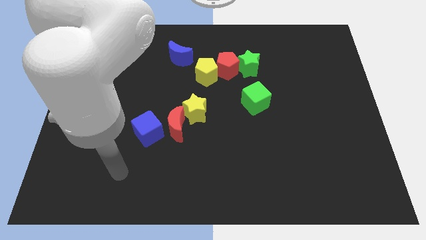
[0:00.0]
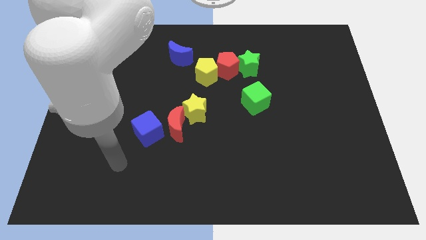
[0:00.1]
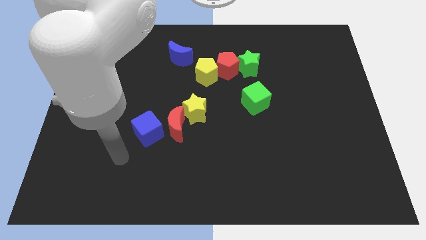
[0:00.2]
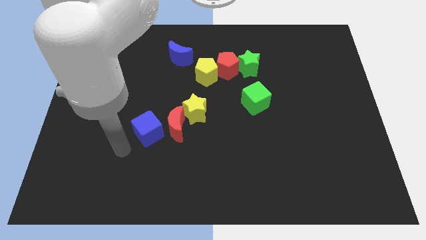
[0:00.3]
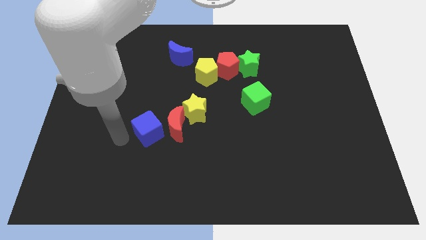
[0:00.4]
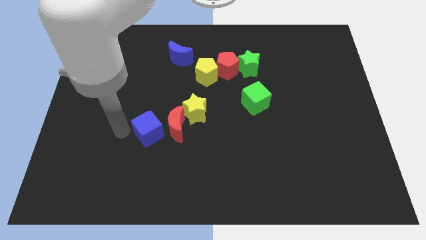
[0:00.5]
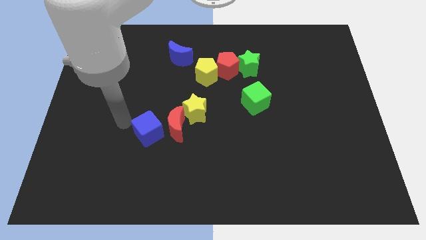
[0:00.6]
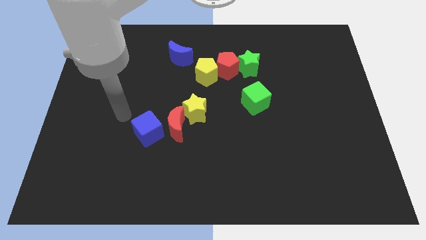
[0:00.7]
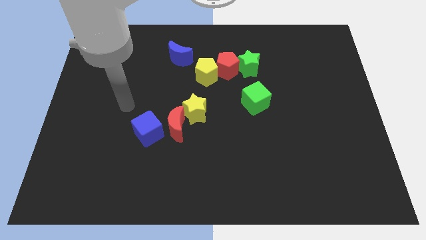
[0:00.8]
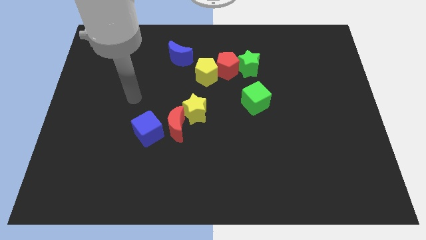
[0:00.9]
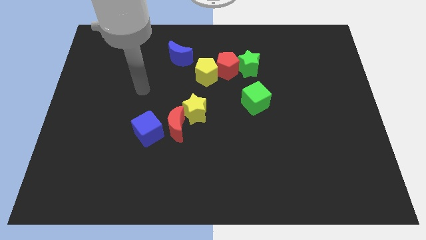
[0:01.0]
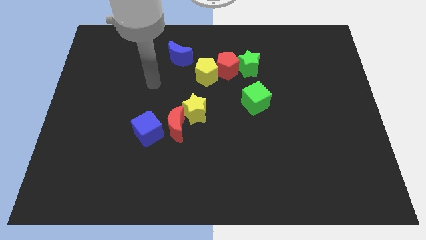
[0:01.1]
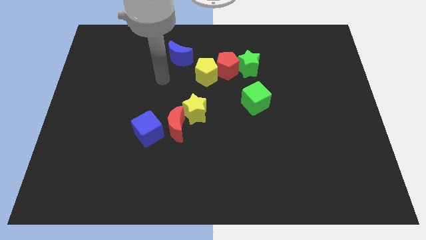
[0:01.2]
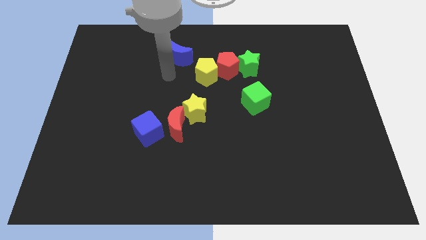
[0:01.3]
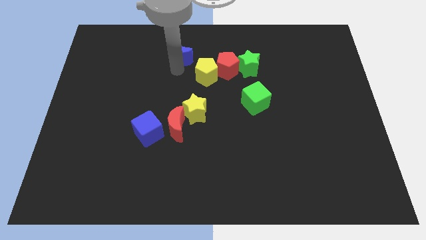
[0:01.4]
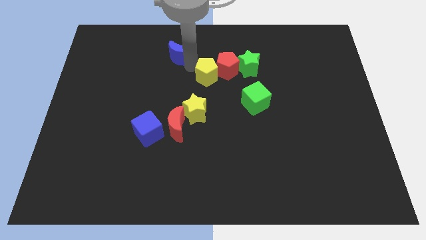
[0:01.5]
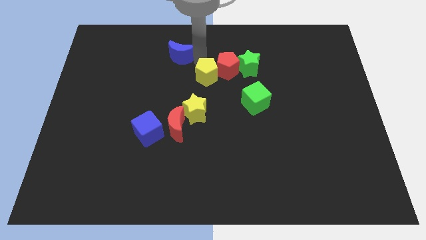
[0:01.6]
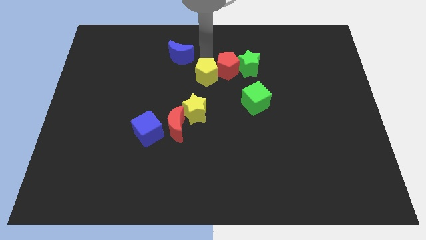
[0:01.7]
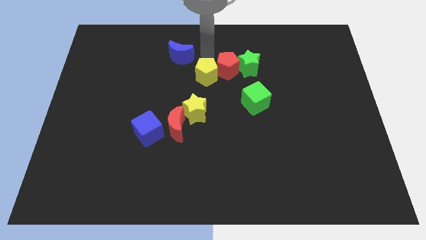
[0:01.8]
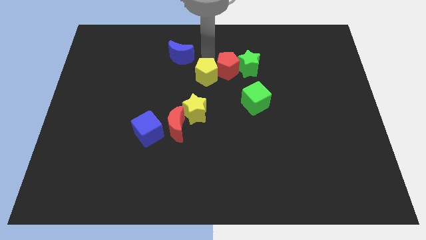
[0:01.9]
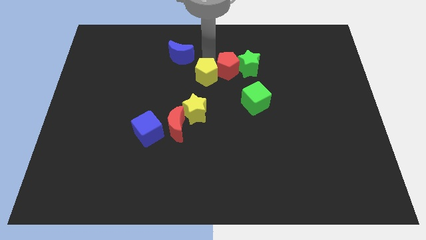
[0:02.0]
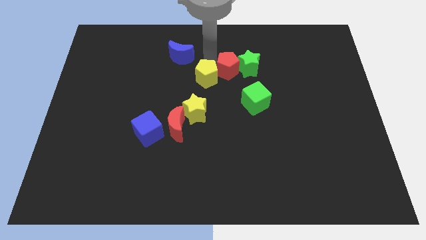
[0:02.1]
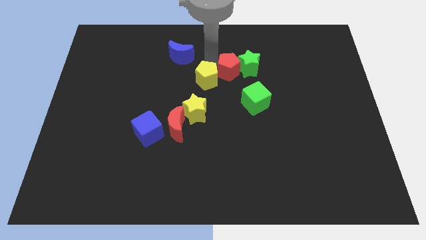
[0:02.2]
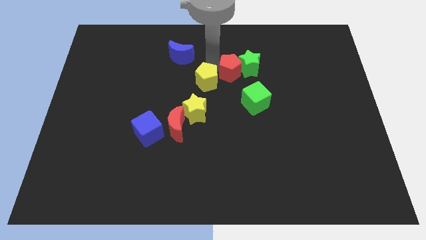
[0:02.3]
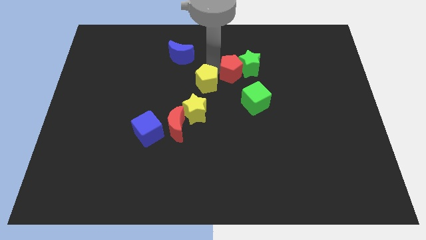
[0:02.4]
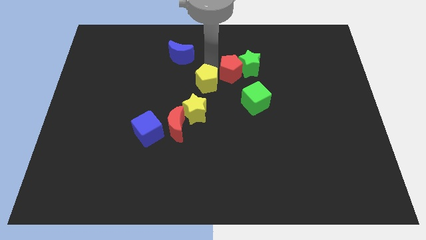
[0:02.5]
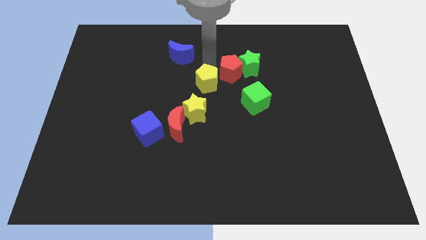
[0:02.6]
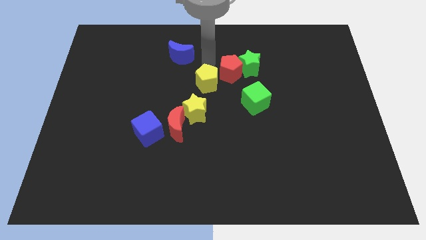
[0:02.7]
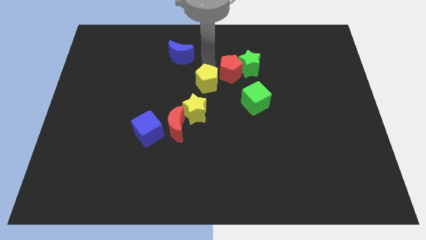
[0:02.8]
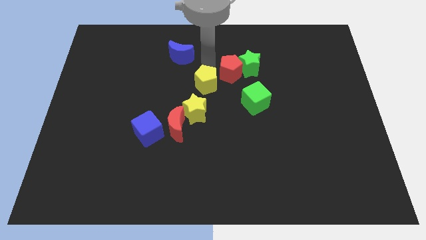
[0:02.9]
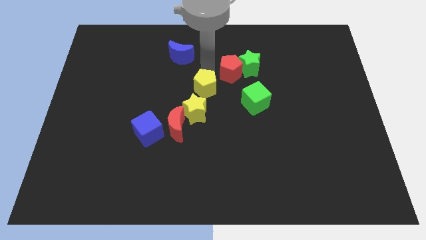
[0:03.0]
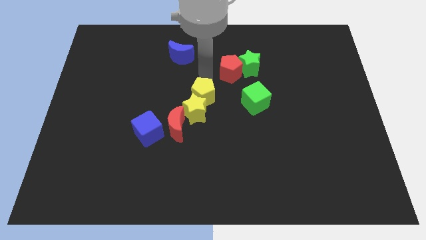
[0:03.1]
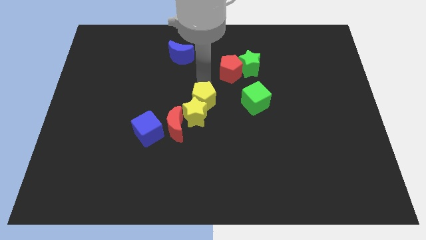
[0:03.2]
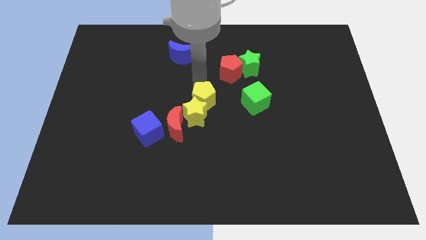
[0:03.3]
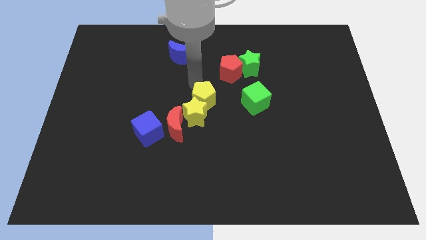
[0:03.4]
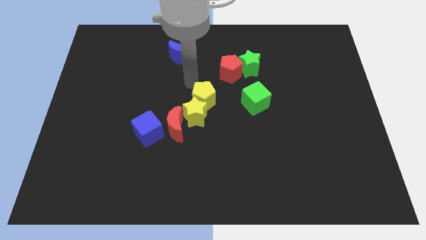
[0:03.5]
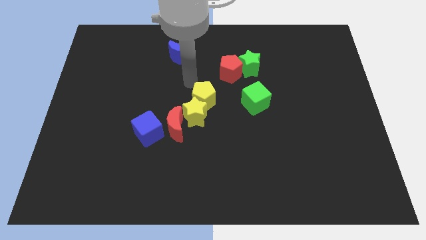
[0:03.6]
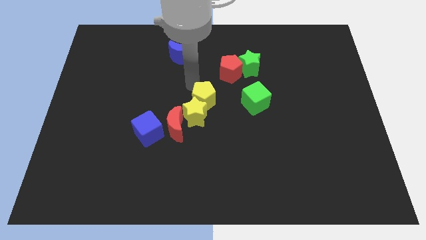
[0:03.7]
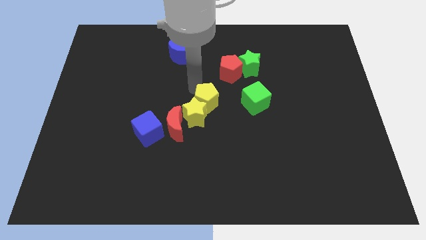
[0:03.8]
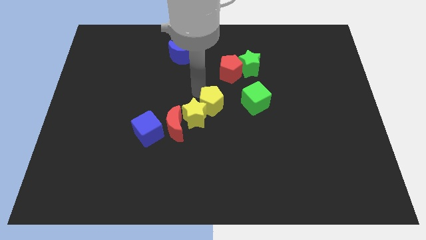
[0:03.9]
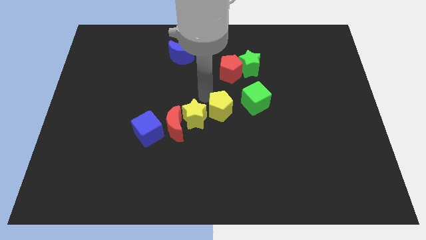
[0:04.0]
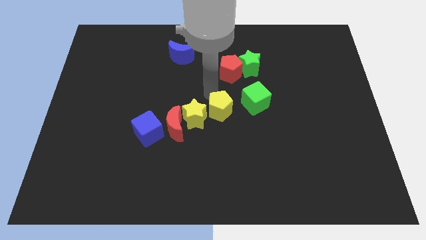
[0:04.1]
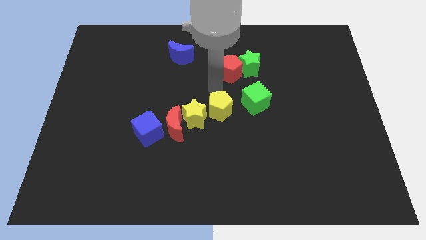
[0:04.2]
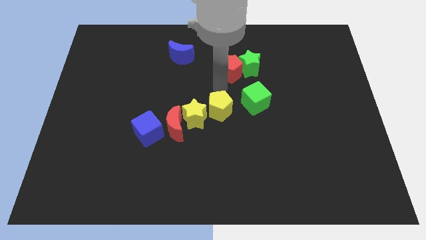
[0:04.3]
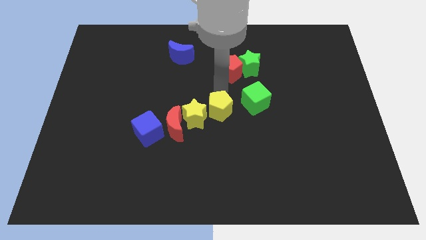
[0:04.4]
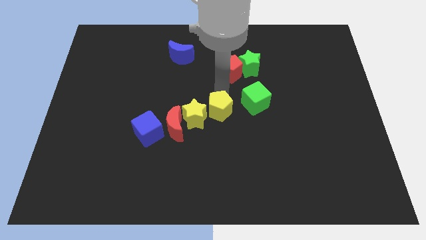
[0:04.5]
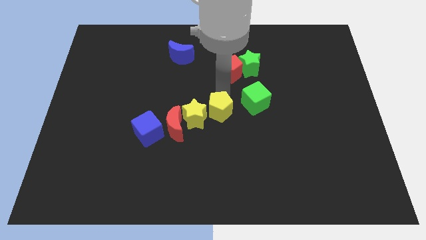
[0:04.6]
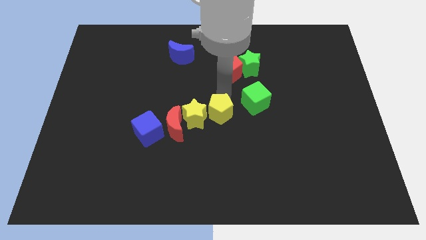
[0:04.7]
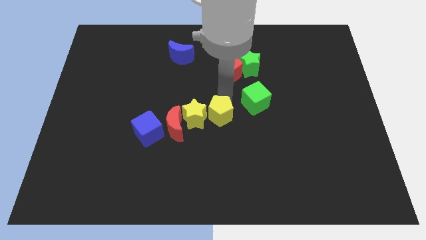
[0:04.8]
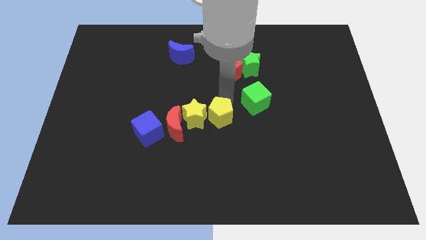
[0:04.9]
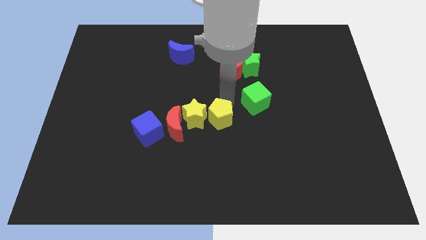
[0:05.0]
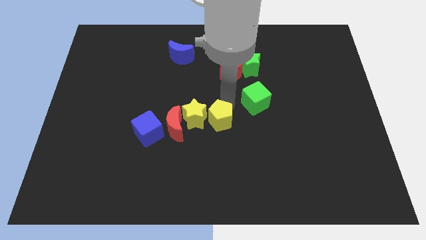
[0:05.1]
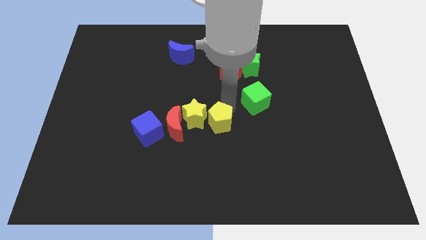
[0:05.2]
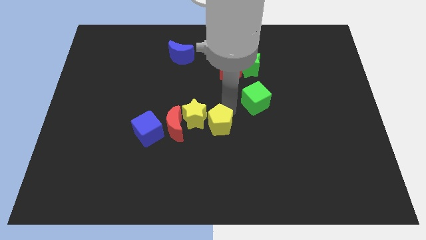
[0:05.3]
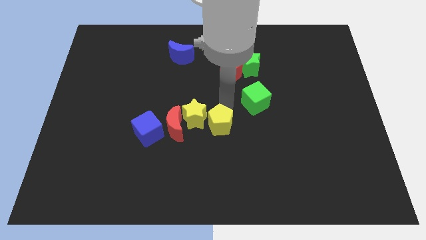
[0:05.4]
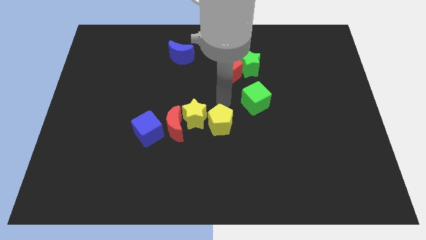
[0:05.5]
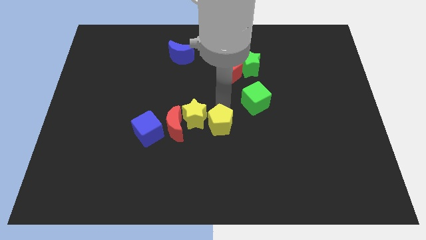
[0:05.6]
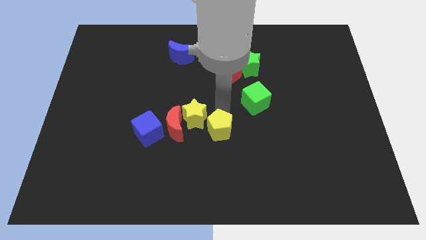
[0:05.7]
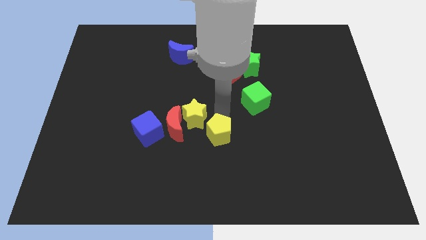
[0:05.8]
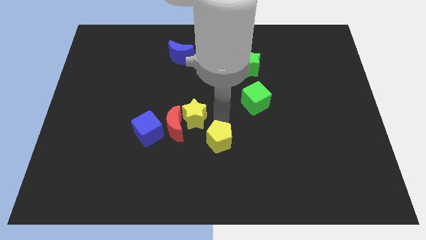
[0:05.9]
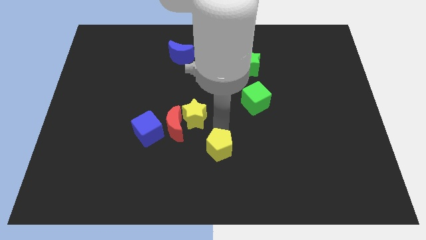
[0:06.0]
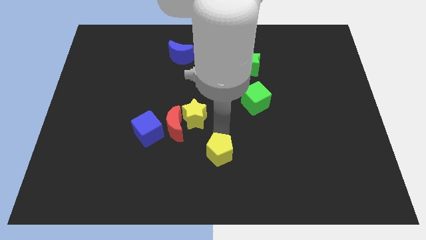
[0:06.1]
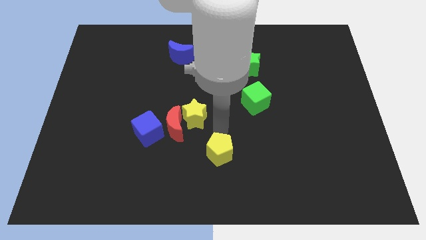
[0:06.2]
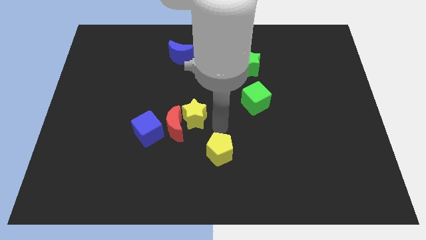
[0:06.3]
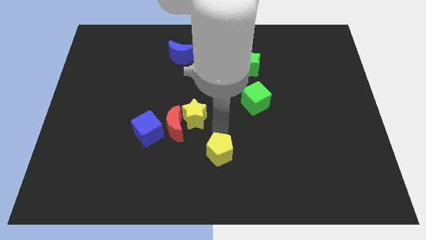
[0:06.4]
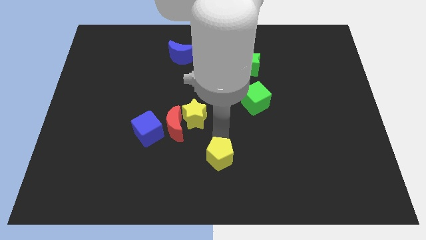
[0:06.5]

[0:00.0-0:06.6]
push the yellow pentagon to the bottom

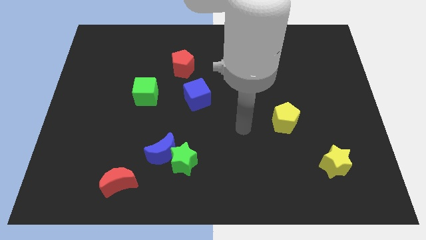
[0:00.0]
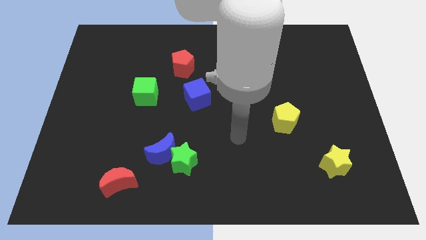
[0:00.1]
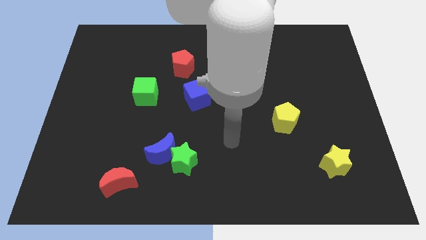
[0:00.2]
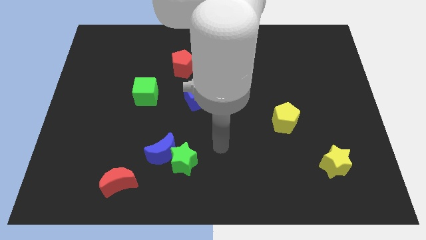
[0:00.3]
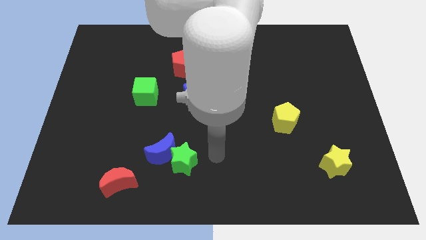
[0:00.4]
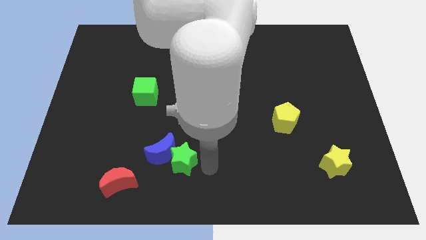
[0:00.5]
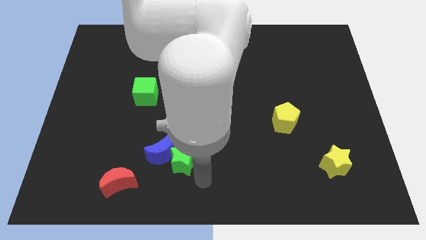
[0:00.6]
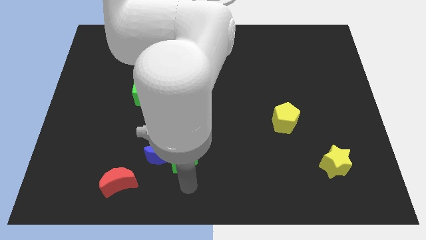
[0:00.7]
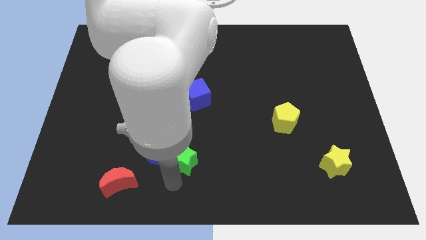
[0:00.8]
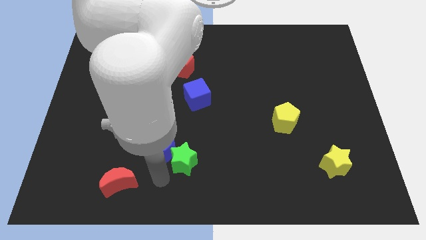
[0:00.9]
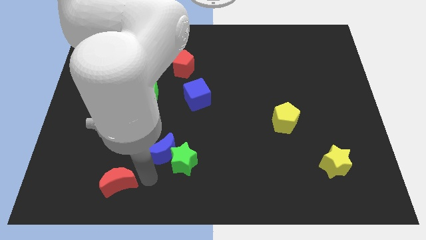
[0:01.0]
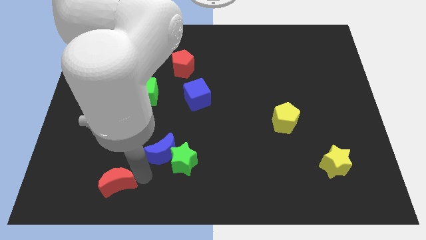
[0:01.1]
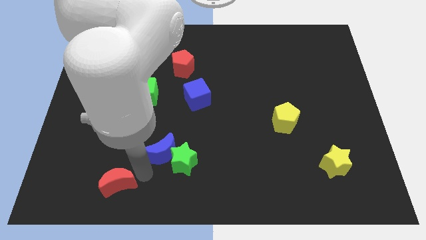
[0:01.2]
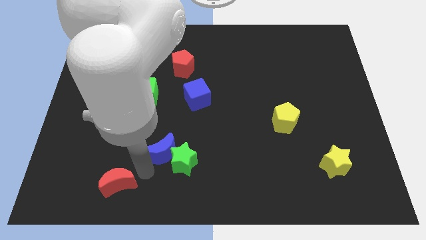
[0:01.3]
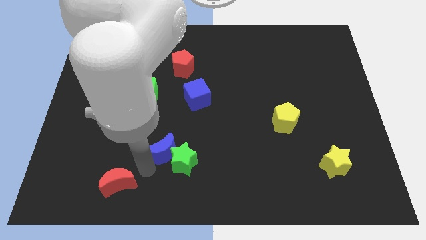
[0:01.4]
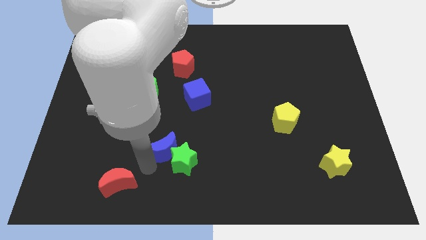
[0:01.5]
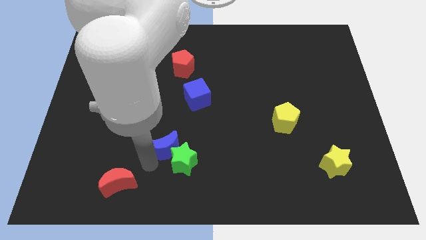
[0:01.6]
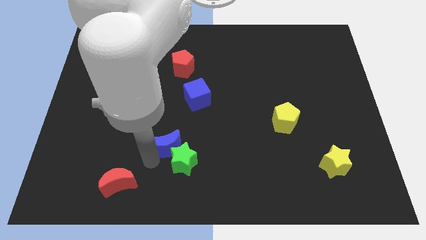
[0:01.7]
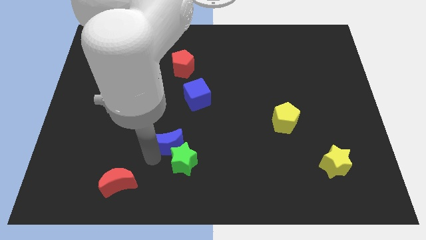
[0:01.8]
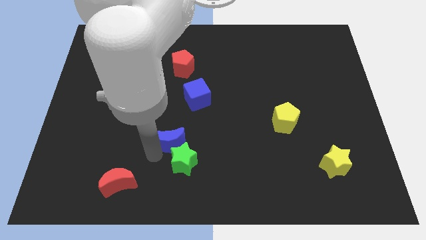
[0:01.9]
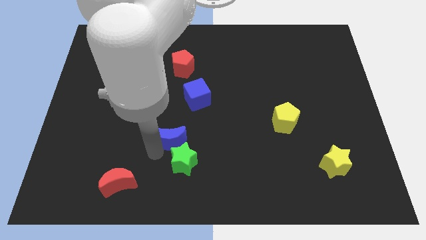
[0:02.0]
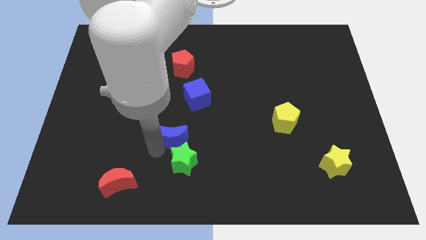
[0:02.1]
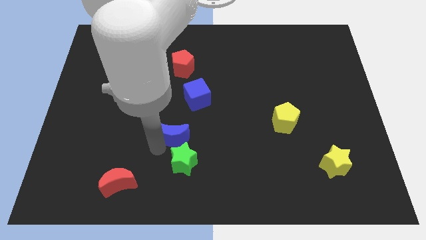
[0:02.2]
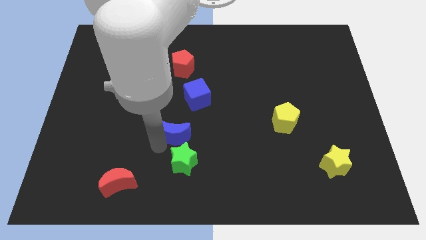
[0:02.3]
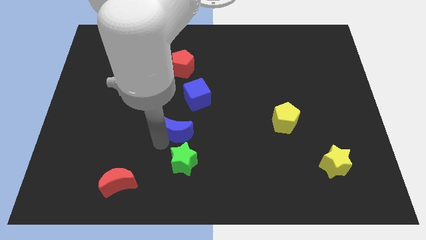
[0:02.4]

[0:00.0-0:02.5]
slide the blue moon to the middle of the board
